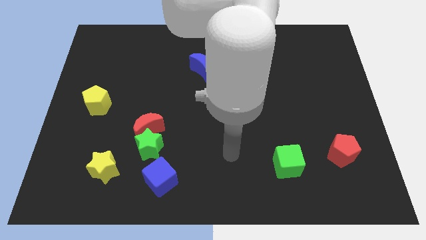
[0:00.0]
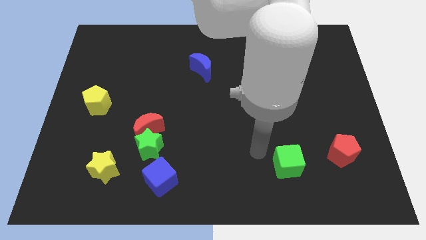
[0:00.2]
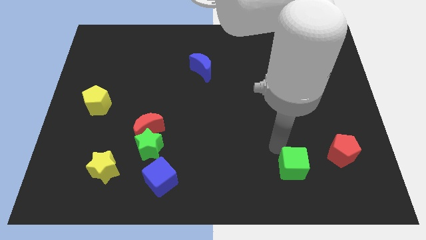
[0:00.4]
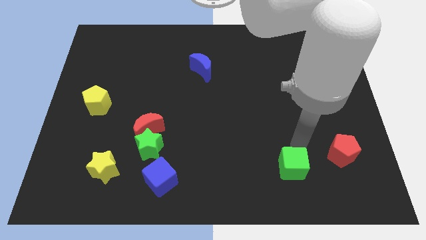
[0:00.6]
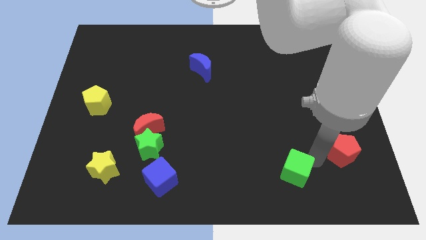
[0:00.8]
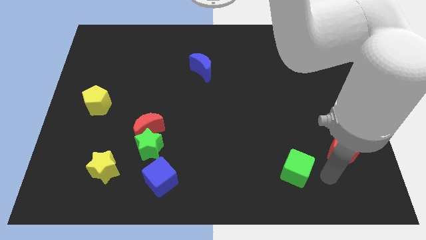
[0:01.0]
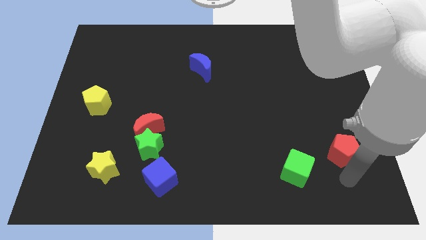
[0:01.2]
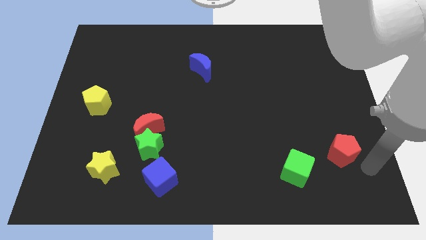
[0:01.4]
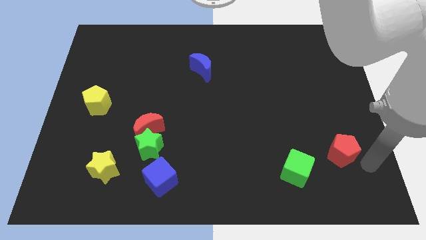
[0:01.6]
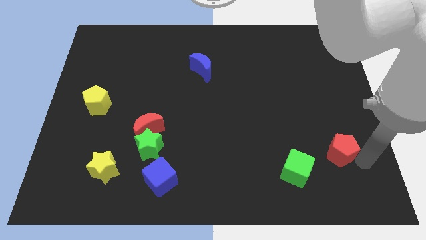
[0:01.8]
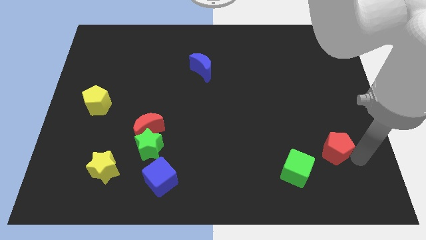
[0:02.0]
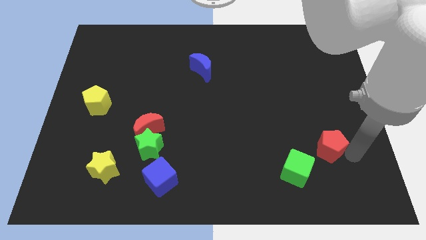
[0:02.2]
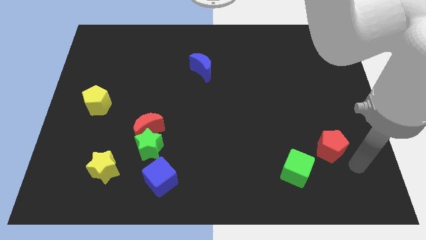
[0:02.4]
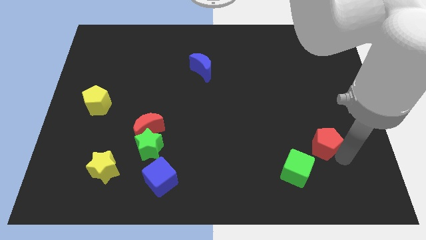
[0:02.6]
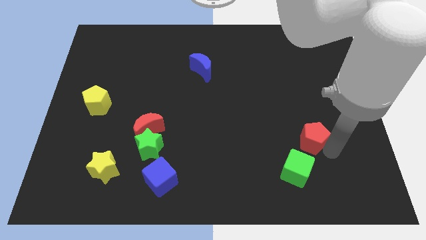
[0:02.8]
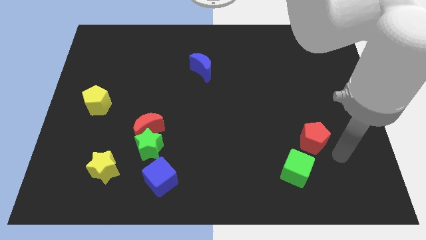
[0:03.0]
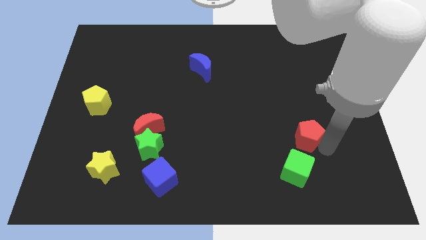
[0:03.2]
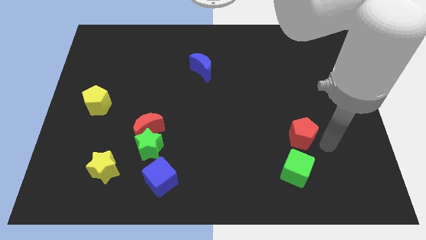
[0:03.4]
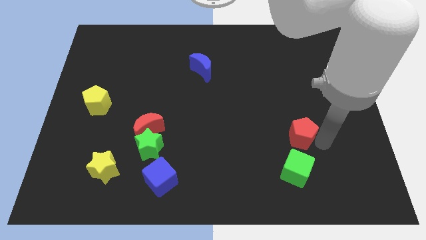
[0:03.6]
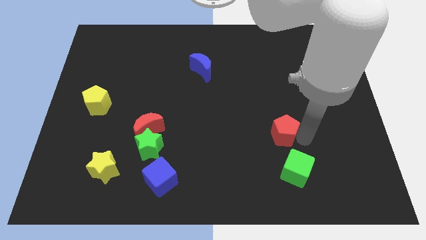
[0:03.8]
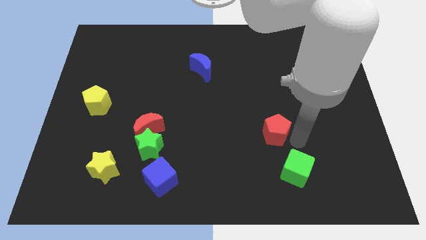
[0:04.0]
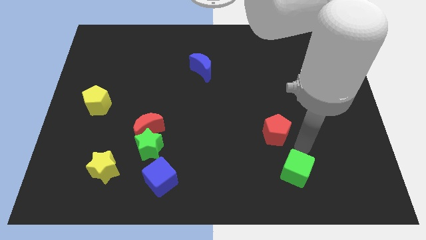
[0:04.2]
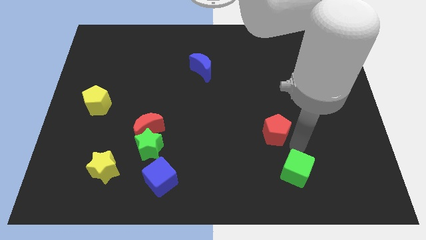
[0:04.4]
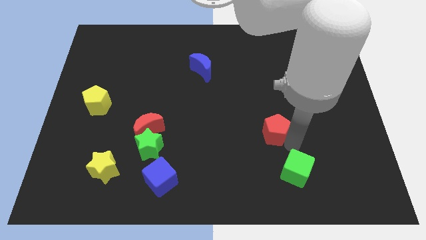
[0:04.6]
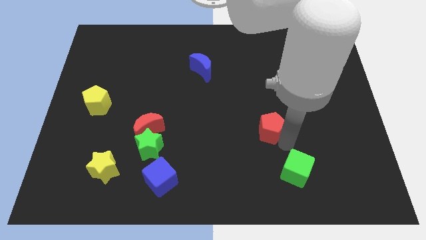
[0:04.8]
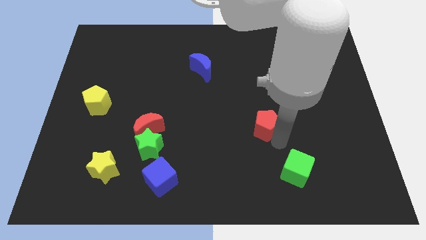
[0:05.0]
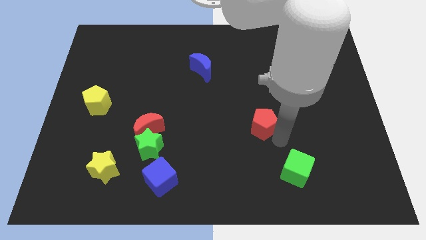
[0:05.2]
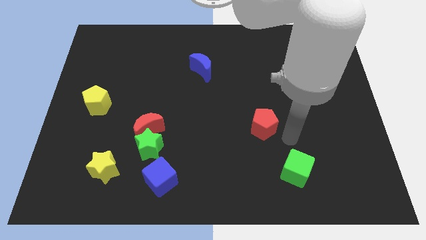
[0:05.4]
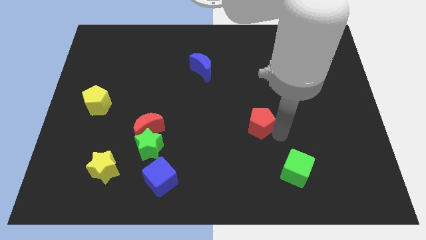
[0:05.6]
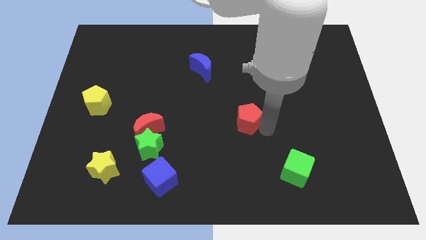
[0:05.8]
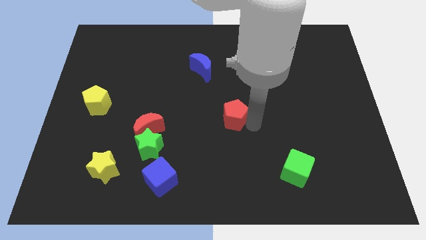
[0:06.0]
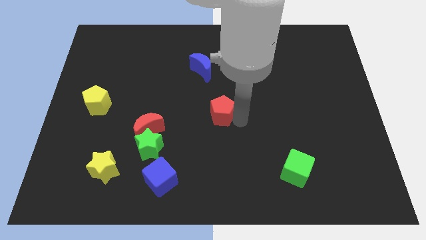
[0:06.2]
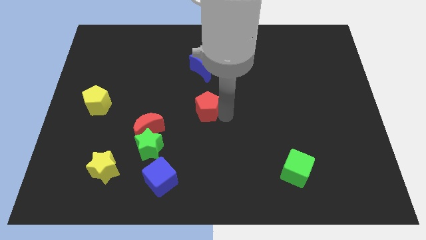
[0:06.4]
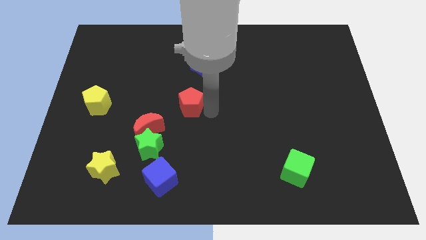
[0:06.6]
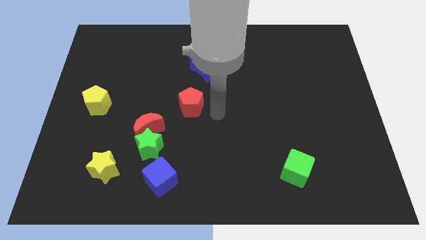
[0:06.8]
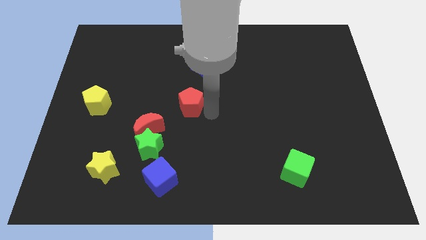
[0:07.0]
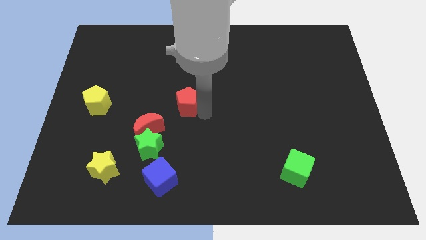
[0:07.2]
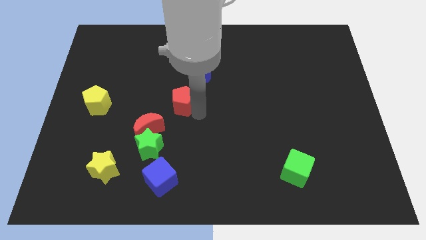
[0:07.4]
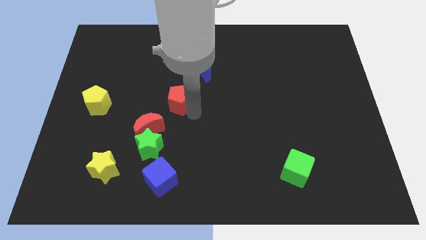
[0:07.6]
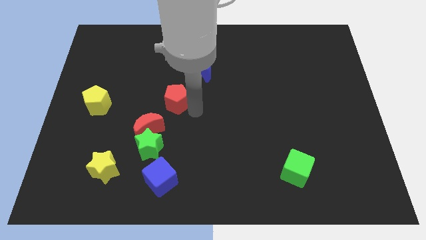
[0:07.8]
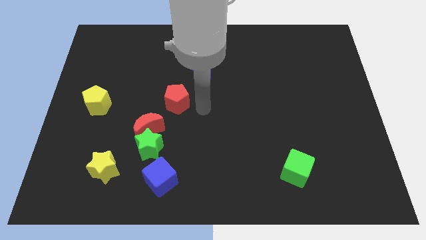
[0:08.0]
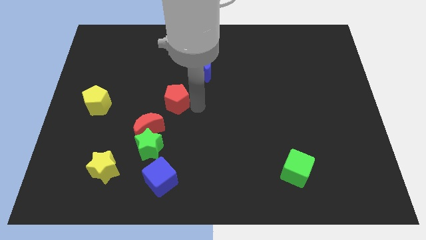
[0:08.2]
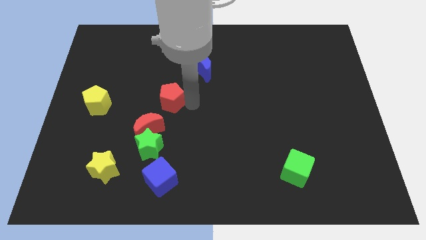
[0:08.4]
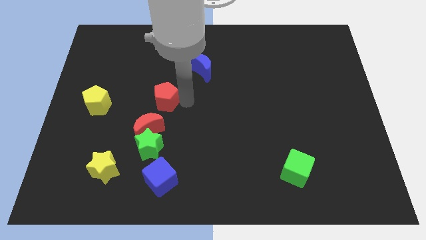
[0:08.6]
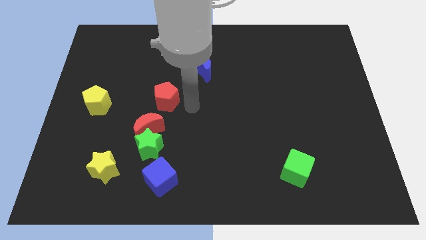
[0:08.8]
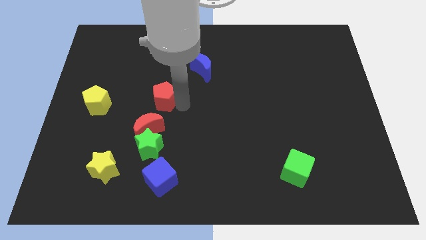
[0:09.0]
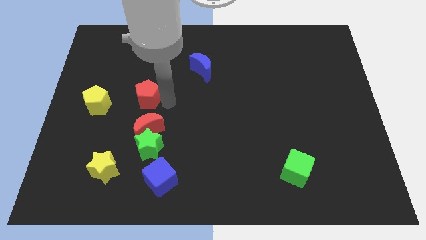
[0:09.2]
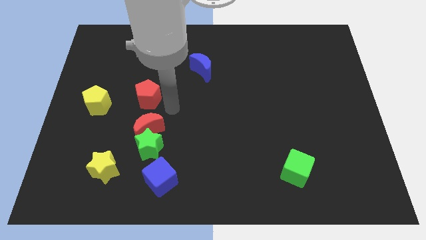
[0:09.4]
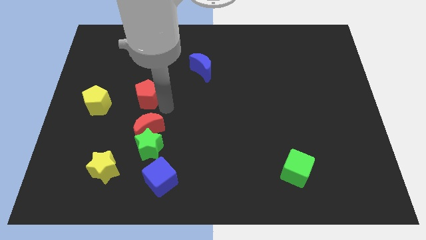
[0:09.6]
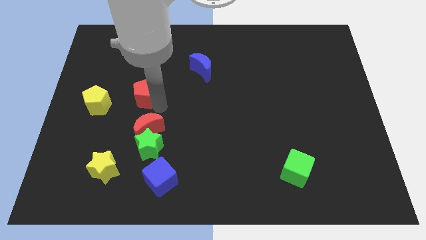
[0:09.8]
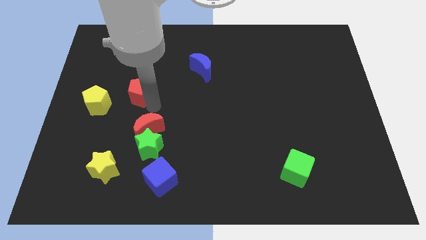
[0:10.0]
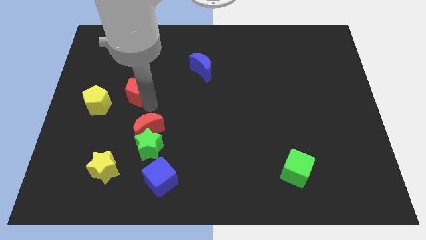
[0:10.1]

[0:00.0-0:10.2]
push the red pentagon to the top right side of the yellow pentagon

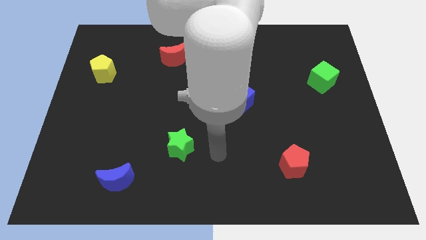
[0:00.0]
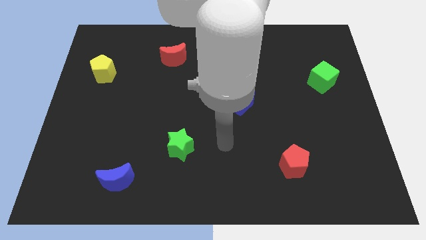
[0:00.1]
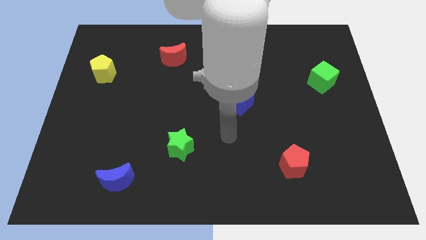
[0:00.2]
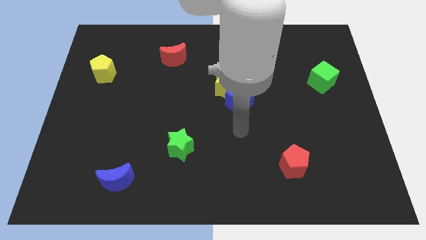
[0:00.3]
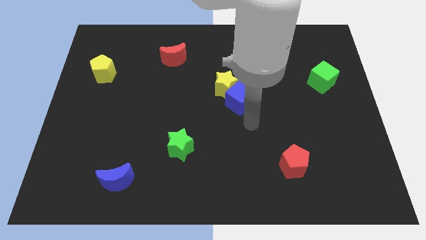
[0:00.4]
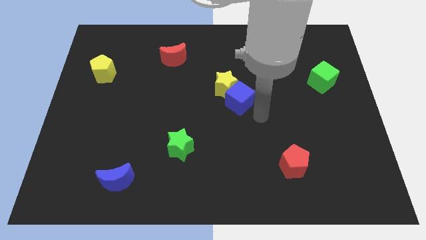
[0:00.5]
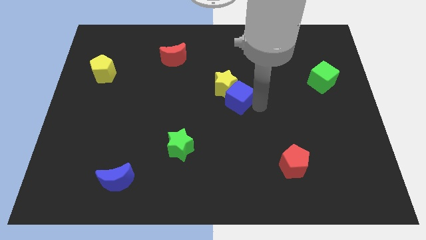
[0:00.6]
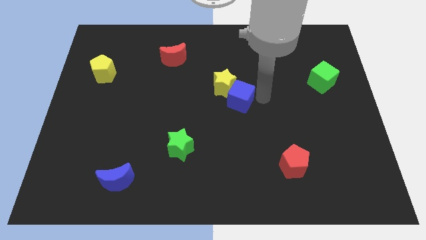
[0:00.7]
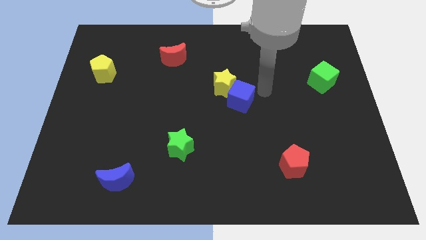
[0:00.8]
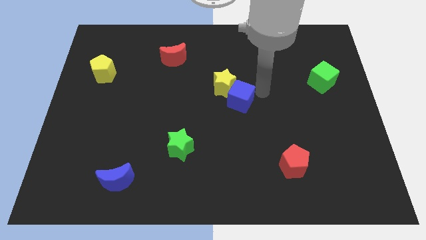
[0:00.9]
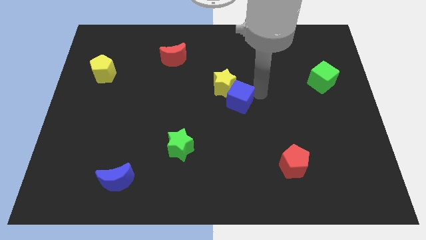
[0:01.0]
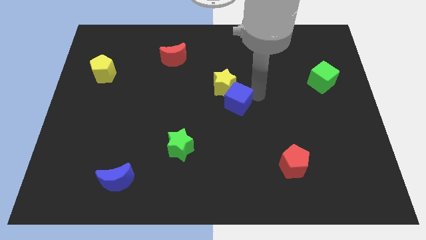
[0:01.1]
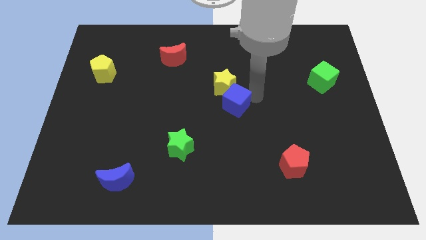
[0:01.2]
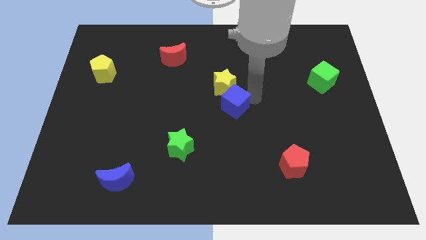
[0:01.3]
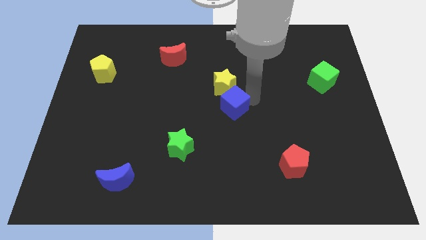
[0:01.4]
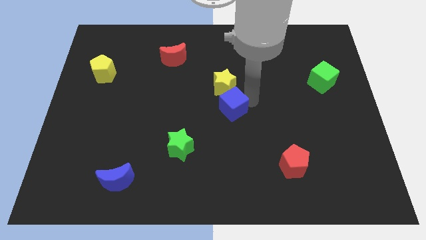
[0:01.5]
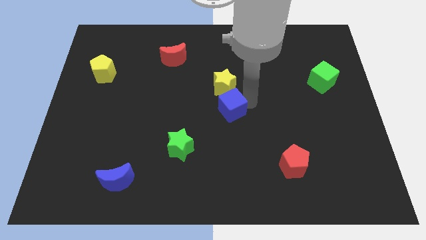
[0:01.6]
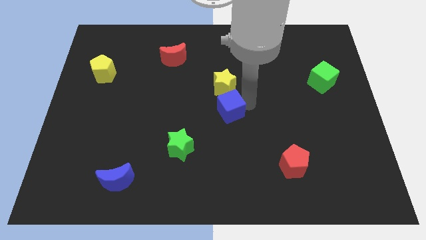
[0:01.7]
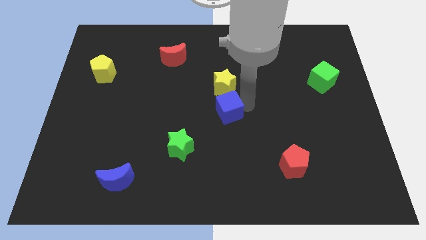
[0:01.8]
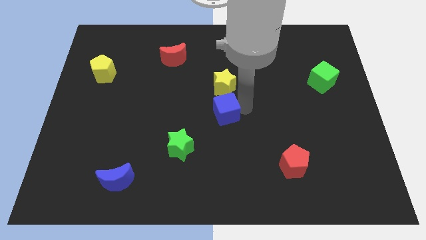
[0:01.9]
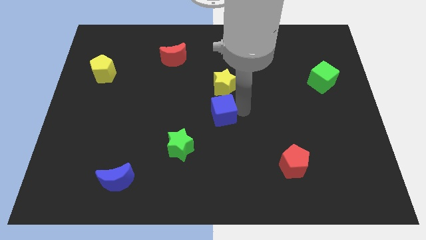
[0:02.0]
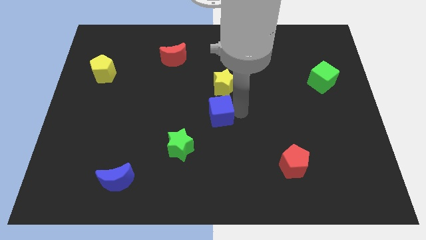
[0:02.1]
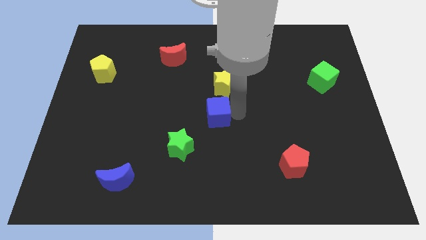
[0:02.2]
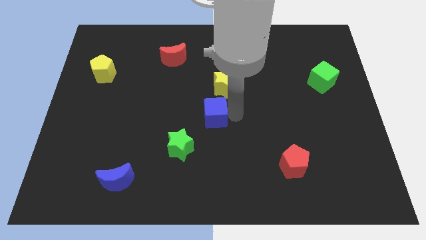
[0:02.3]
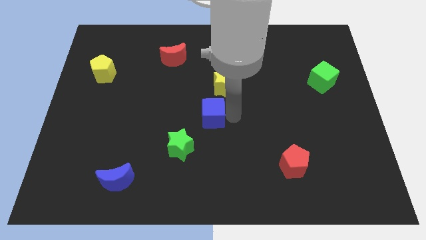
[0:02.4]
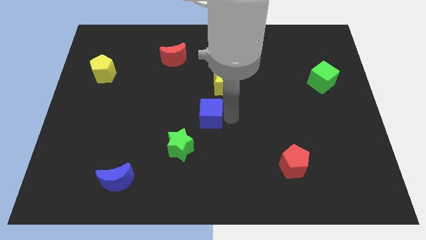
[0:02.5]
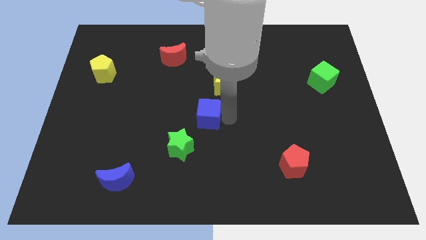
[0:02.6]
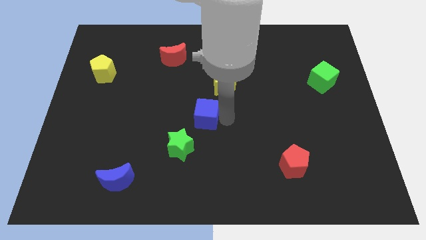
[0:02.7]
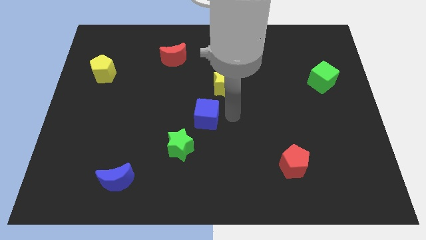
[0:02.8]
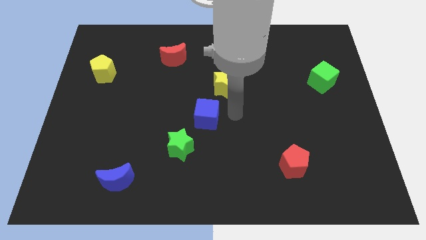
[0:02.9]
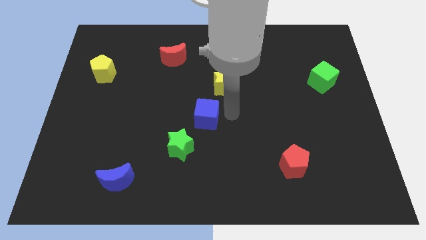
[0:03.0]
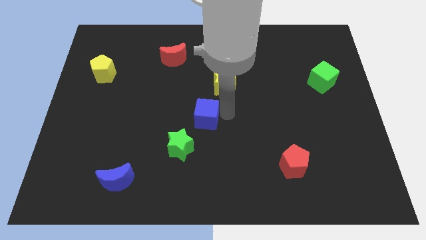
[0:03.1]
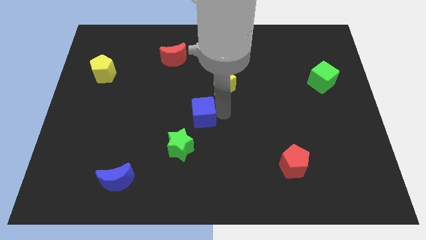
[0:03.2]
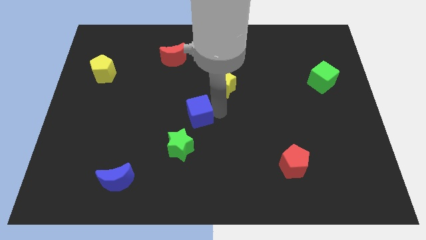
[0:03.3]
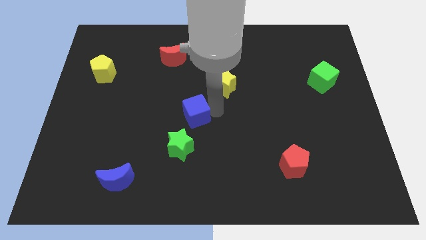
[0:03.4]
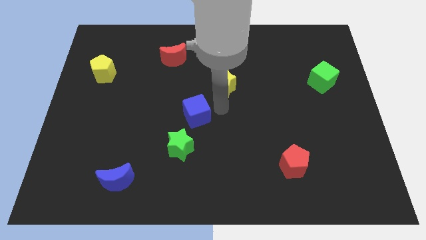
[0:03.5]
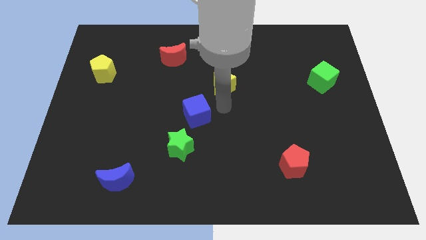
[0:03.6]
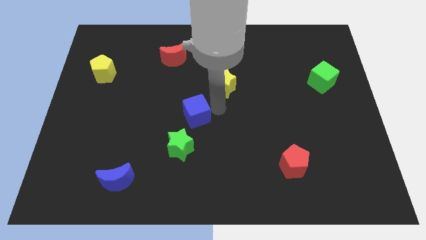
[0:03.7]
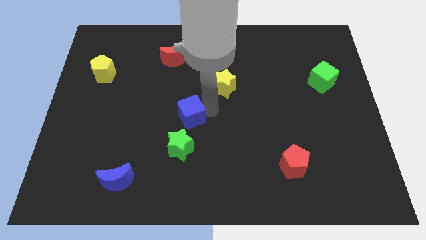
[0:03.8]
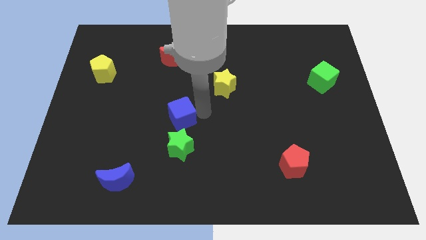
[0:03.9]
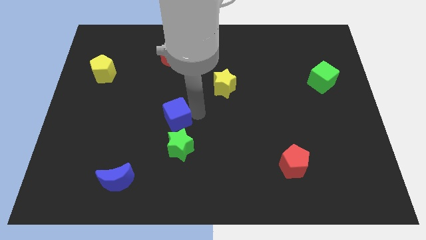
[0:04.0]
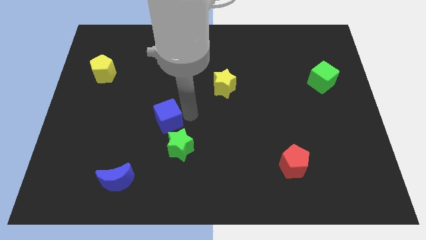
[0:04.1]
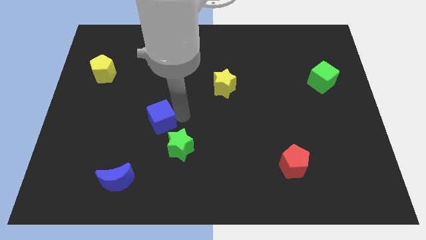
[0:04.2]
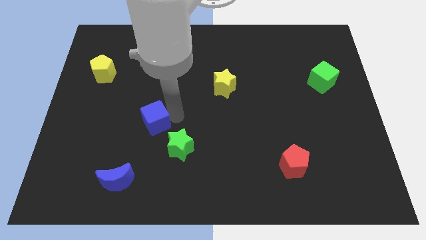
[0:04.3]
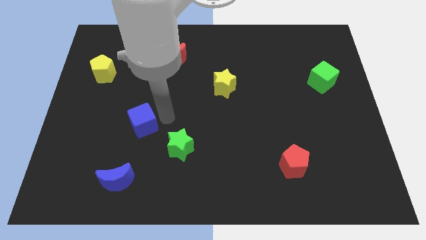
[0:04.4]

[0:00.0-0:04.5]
move the blue cube to the top of the blue moon
